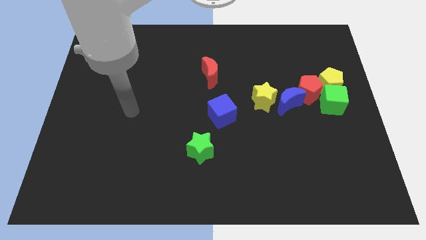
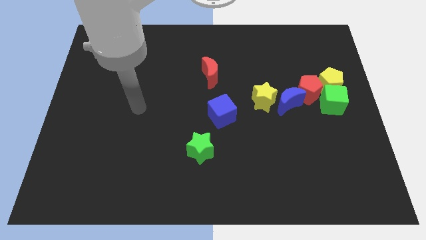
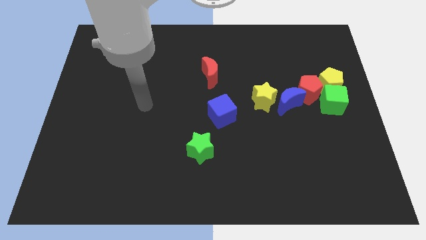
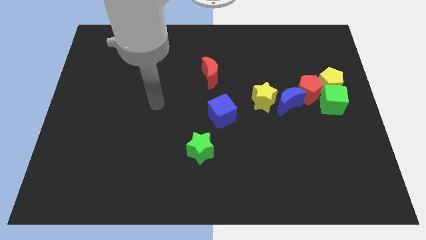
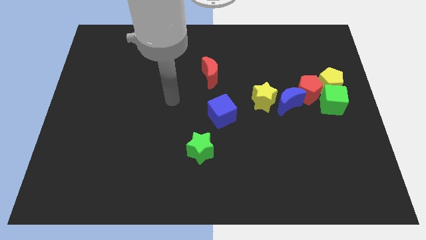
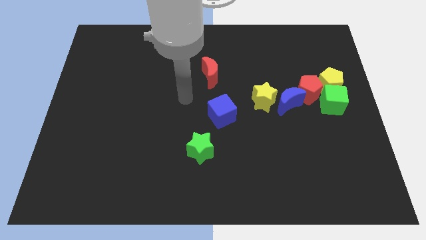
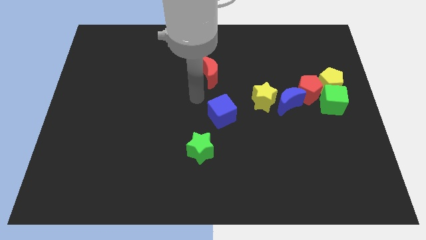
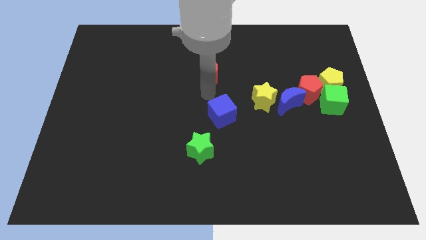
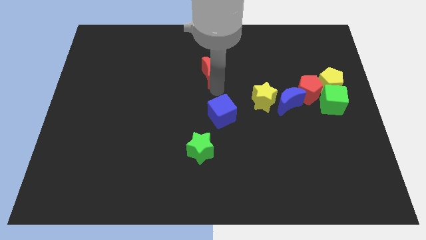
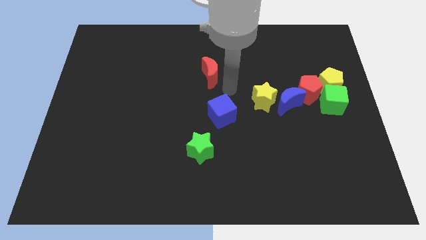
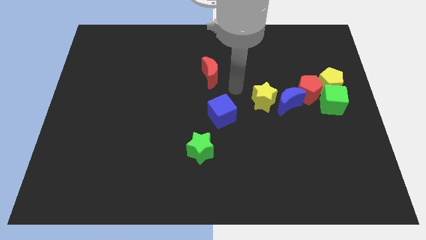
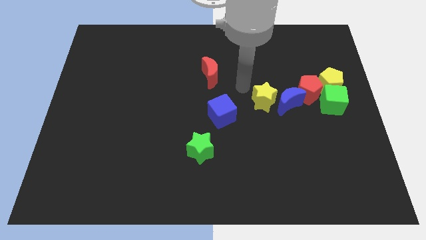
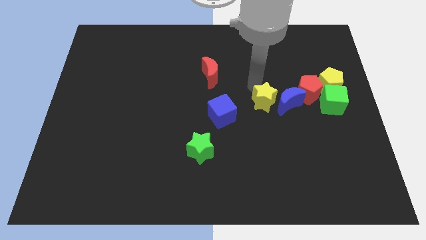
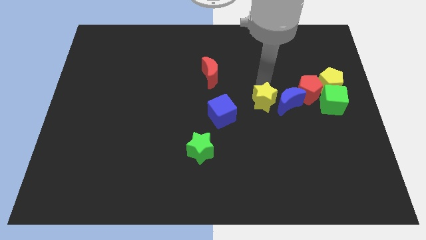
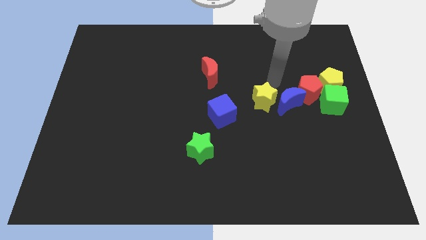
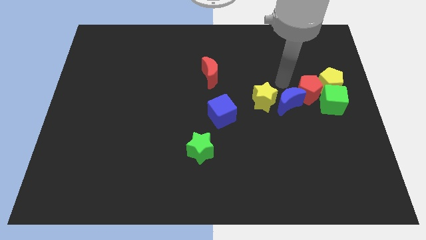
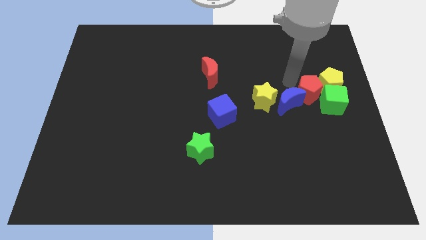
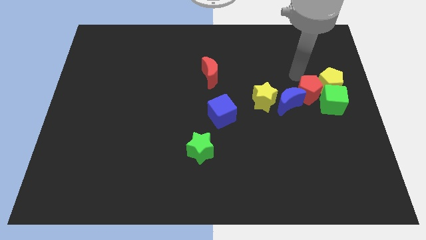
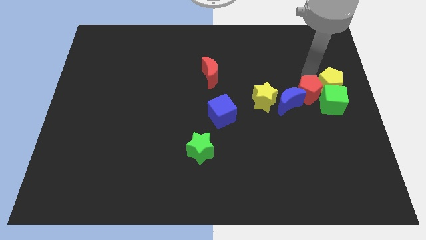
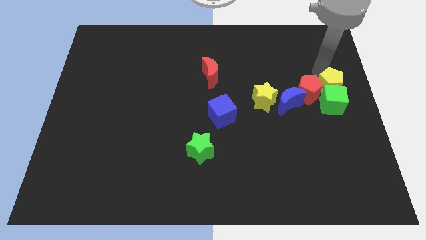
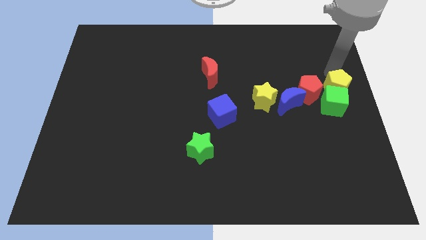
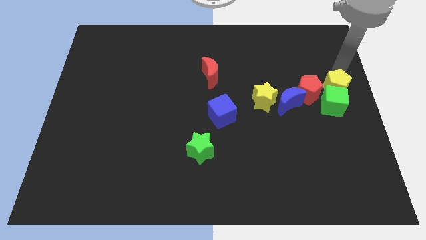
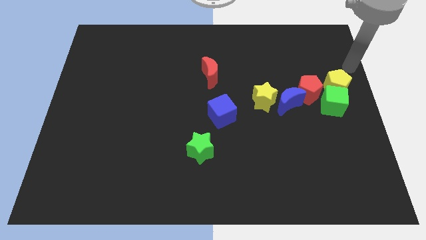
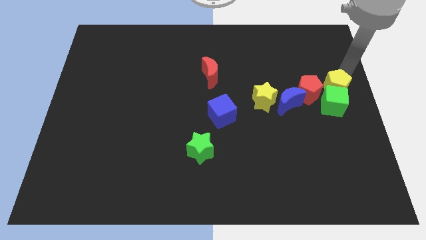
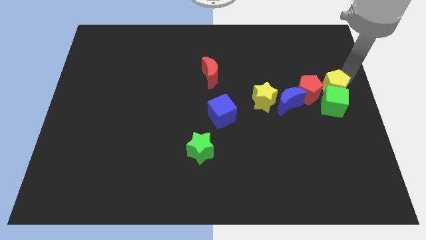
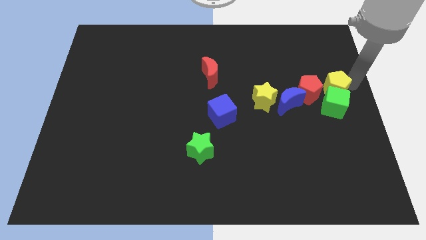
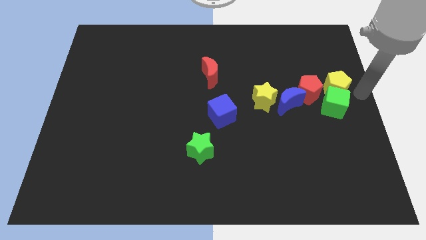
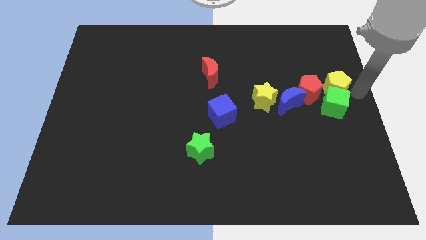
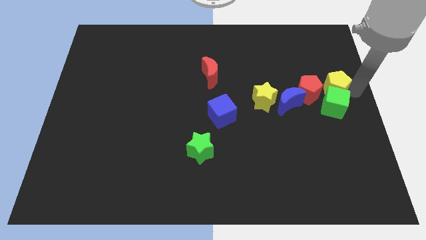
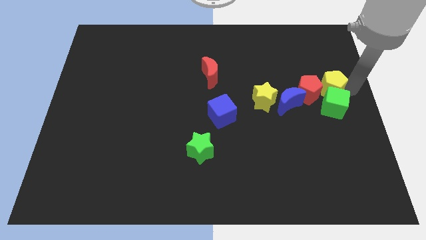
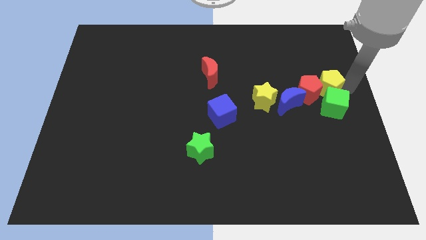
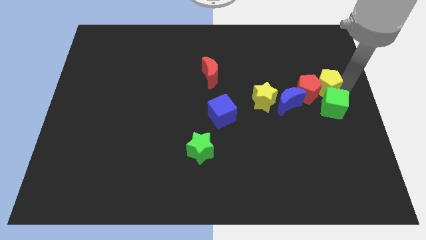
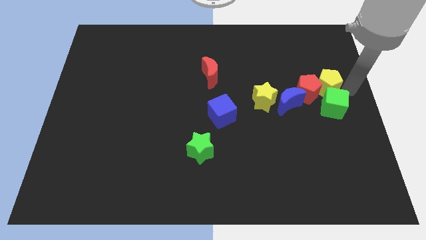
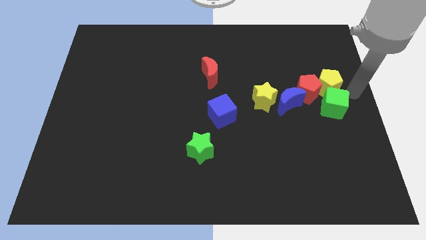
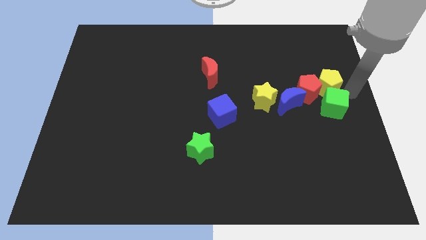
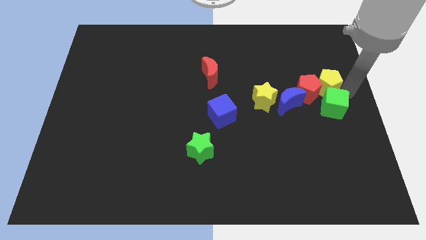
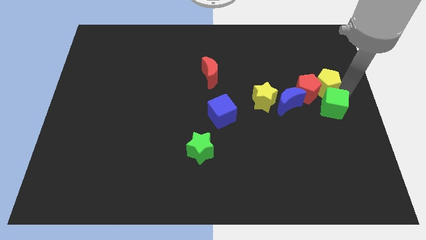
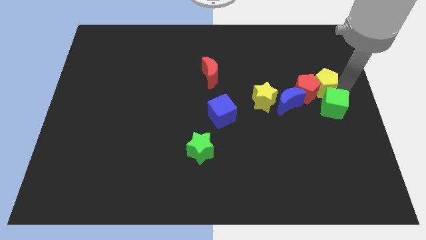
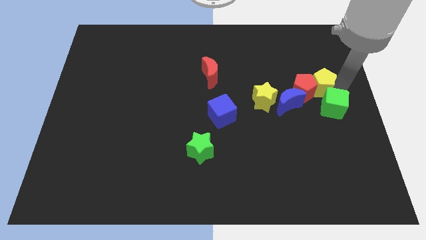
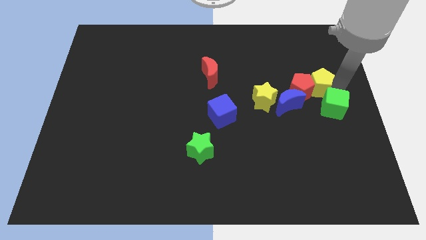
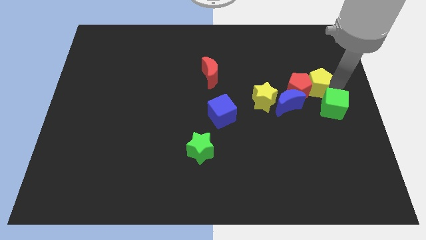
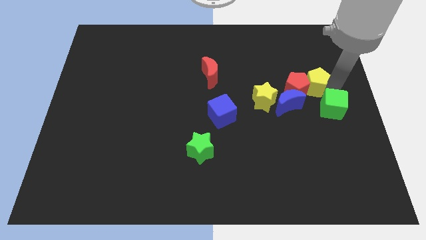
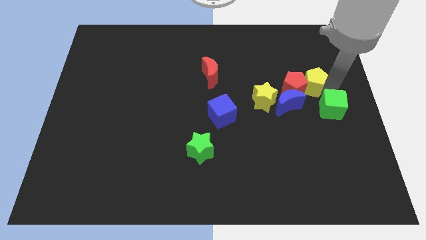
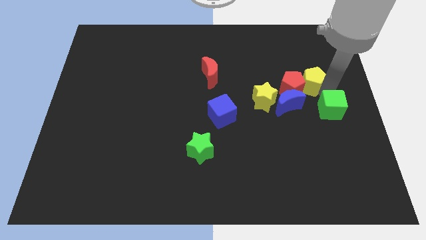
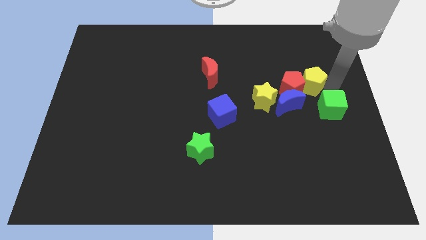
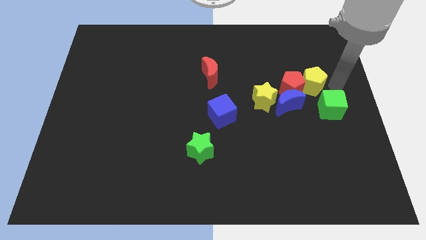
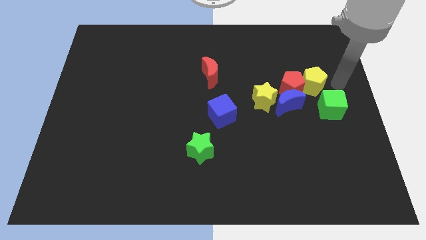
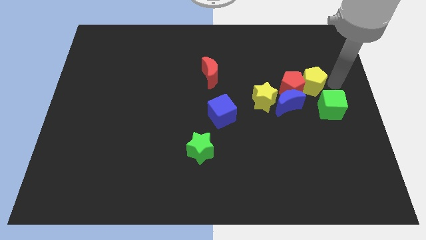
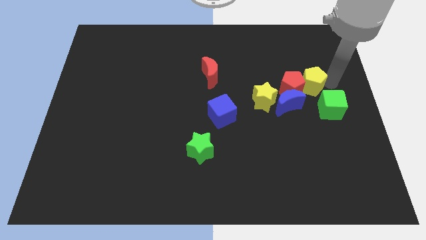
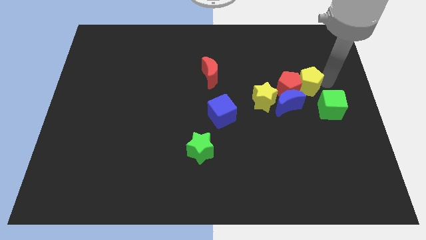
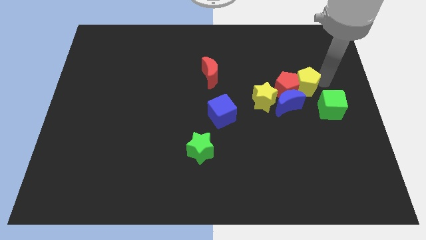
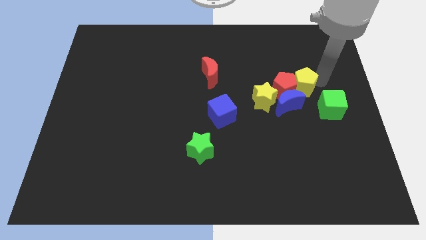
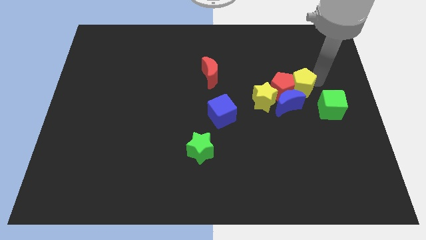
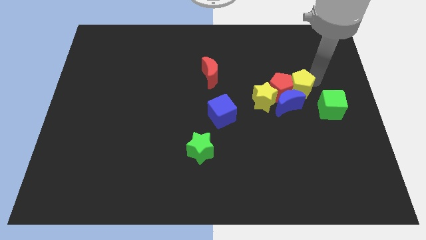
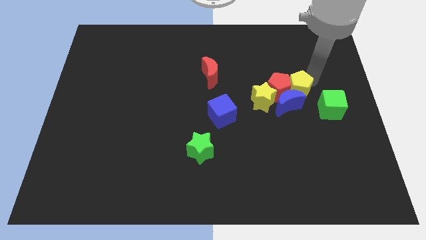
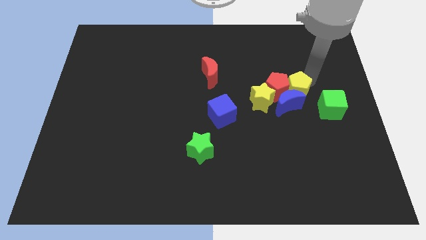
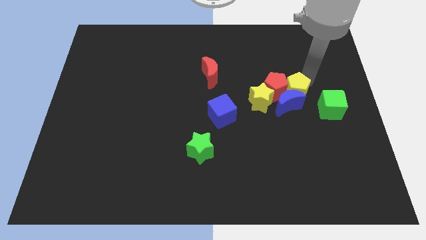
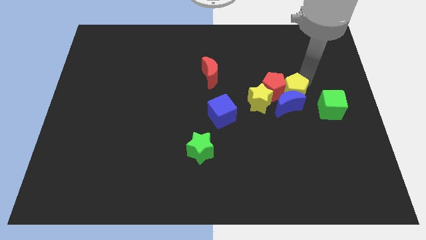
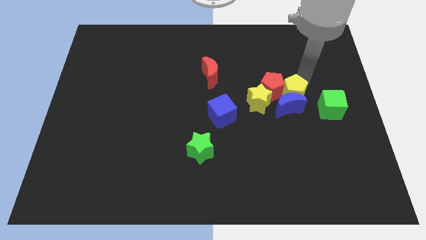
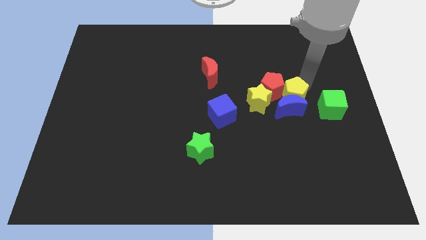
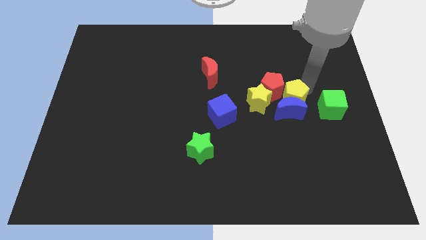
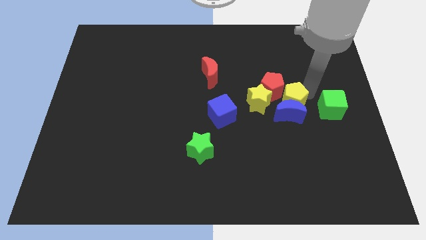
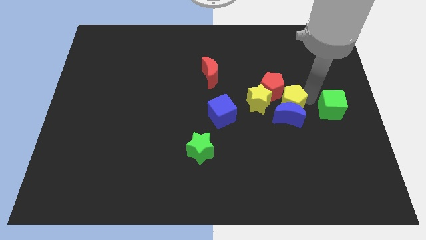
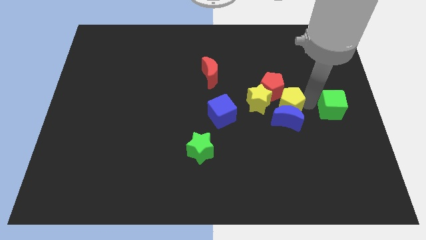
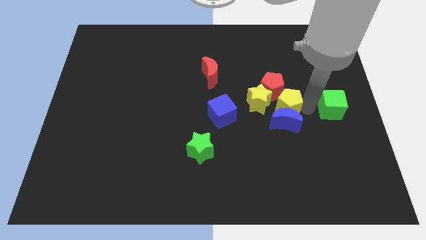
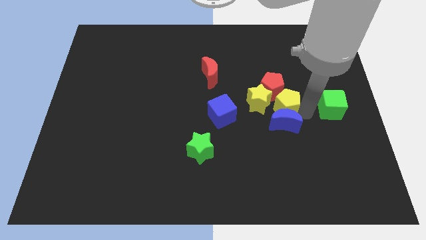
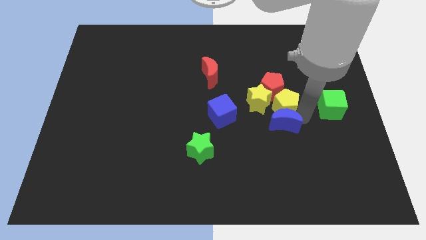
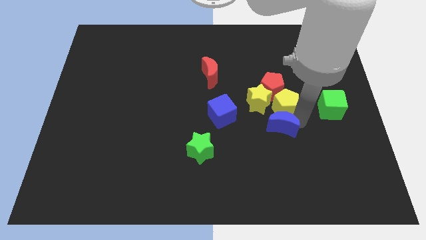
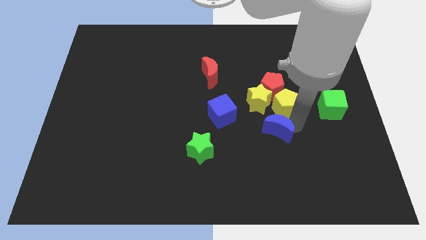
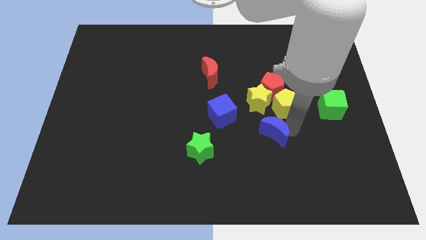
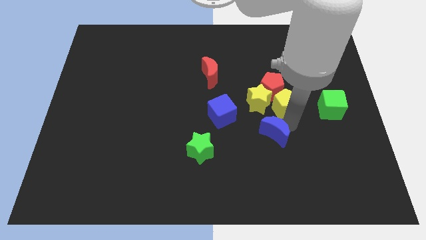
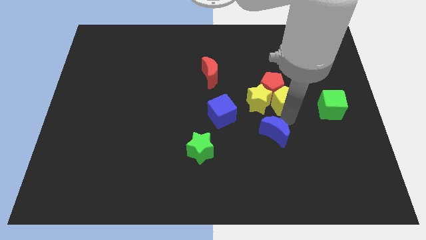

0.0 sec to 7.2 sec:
slide the yellow pentagon to the yellow star
